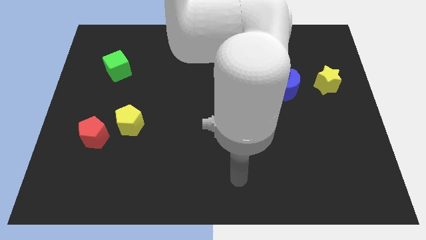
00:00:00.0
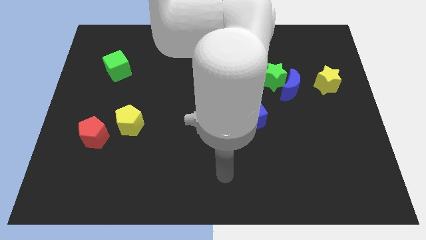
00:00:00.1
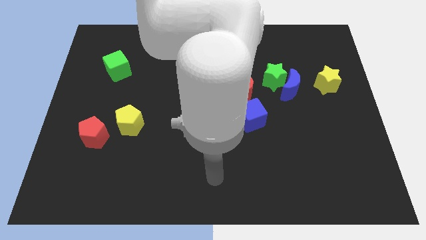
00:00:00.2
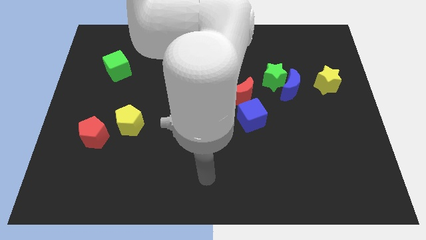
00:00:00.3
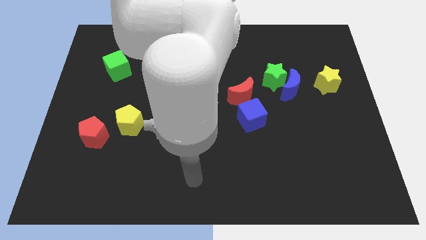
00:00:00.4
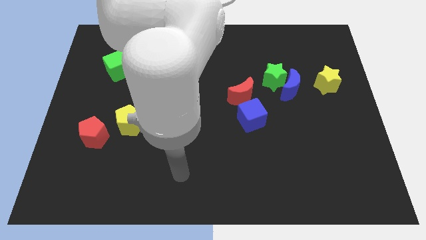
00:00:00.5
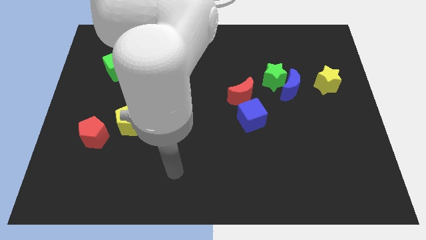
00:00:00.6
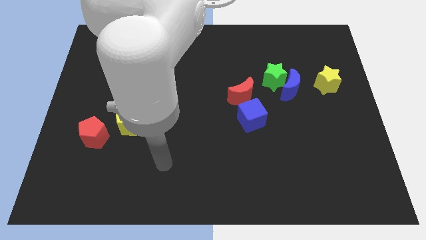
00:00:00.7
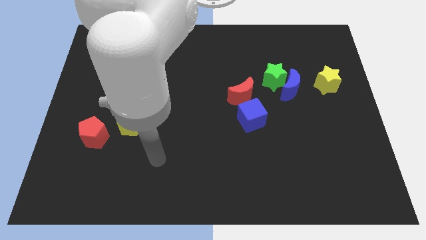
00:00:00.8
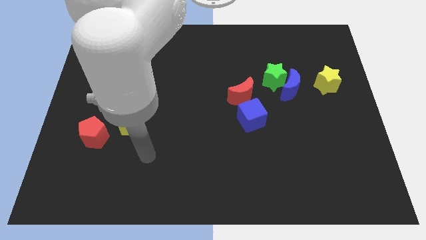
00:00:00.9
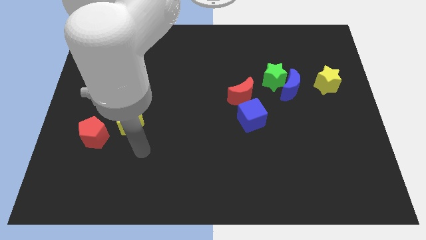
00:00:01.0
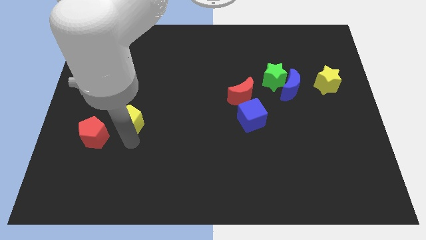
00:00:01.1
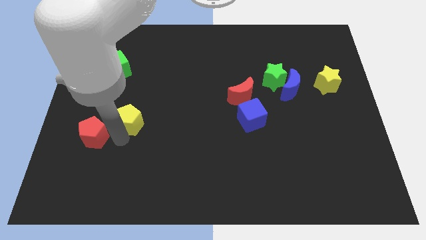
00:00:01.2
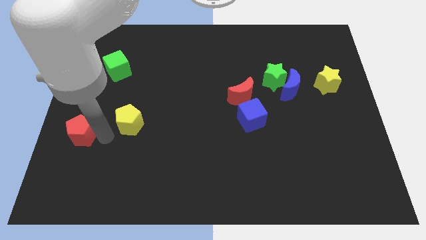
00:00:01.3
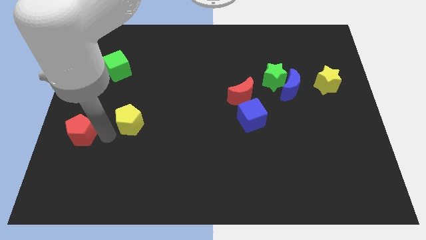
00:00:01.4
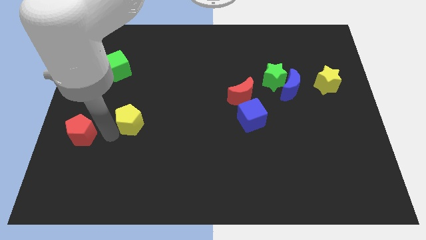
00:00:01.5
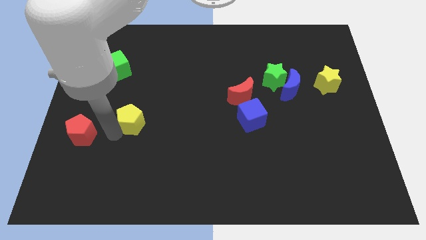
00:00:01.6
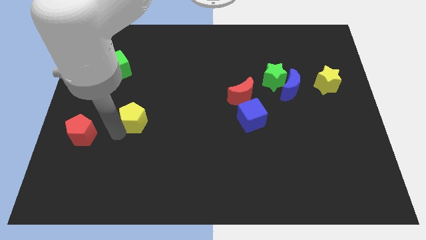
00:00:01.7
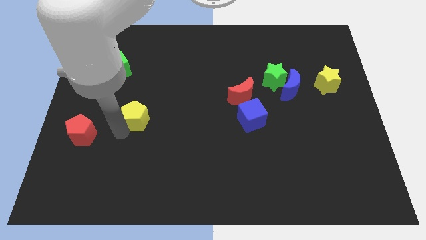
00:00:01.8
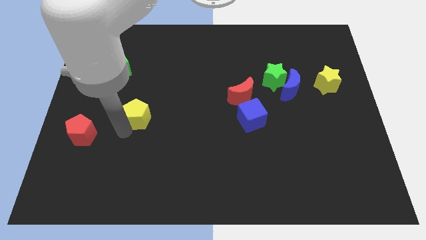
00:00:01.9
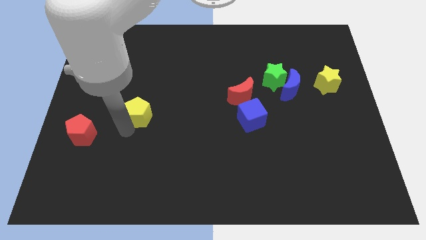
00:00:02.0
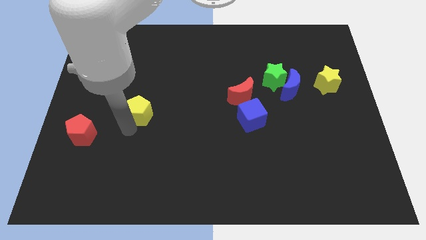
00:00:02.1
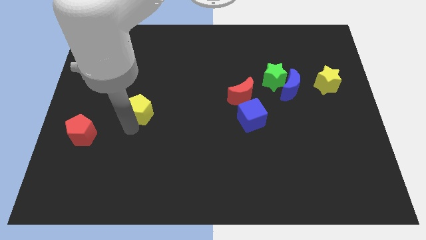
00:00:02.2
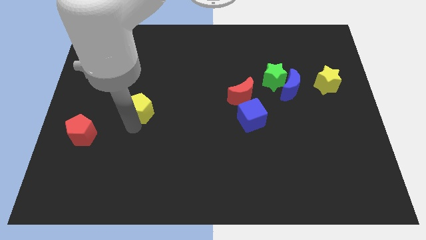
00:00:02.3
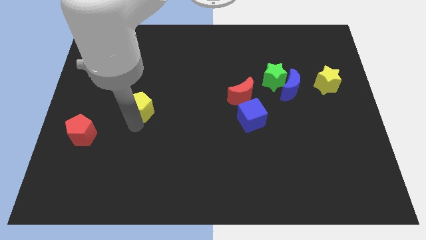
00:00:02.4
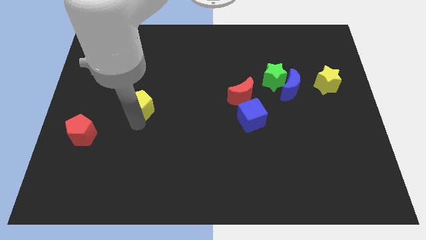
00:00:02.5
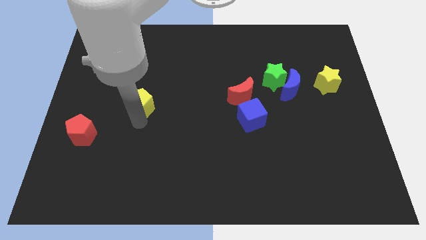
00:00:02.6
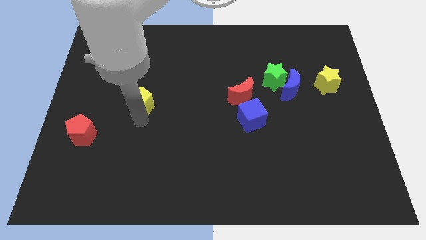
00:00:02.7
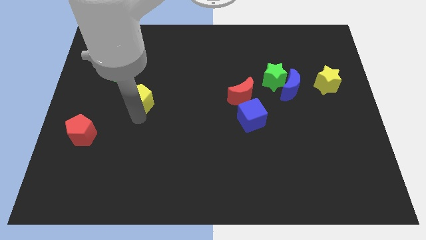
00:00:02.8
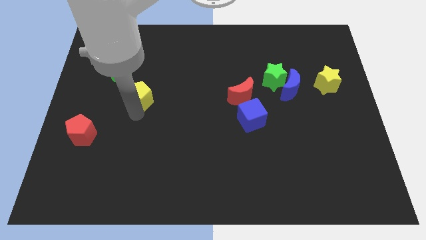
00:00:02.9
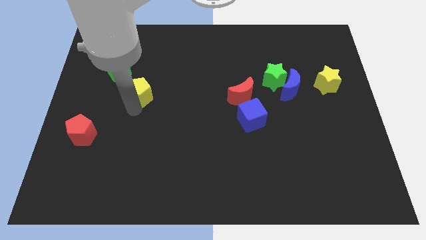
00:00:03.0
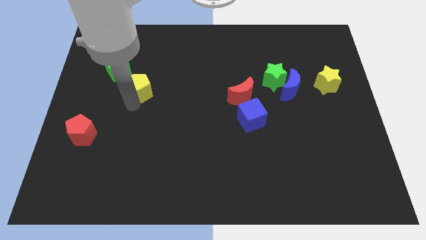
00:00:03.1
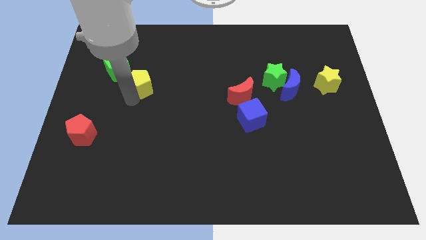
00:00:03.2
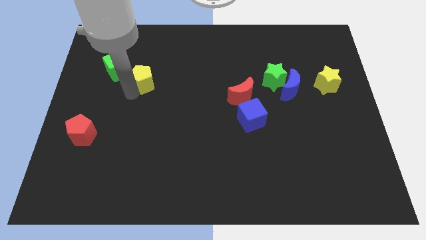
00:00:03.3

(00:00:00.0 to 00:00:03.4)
move the yellow pentagon a little bit upwards and right diagonally

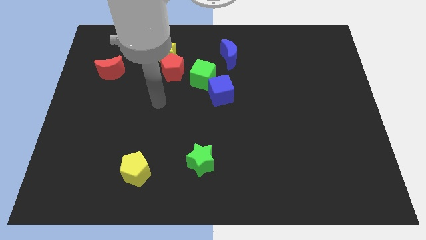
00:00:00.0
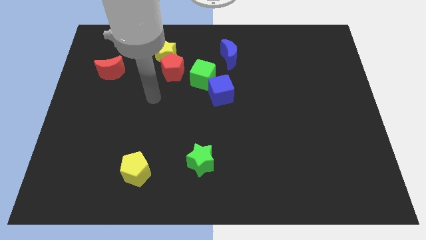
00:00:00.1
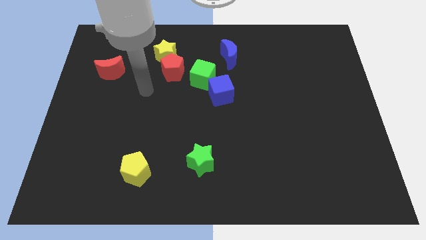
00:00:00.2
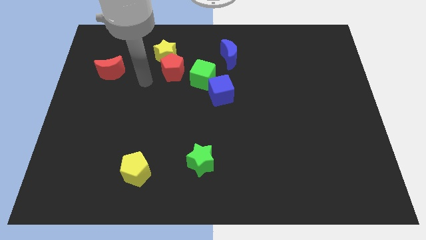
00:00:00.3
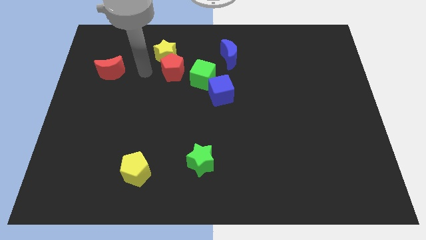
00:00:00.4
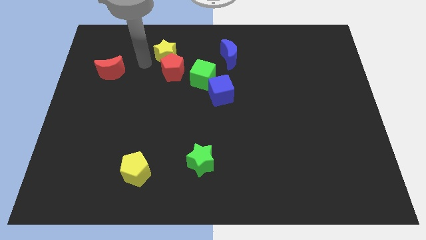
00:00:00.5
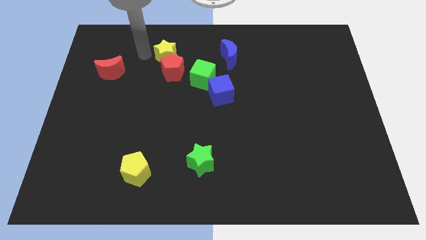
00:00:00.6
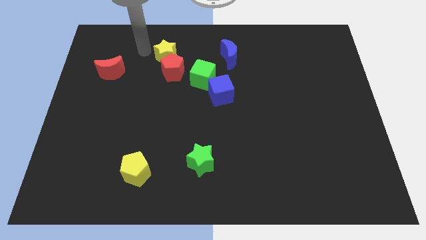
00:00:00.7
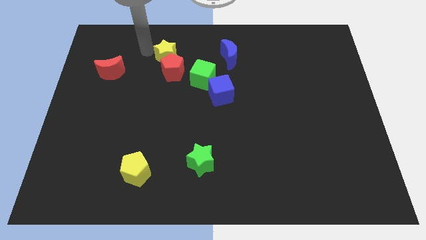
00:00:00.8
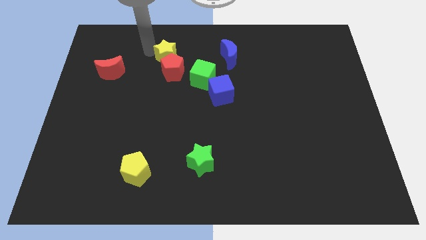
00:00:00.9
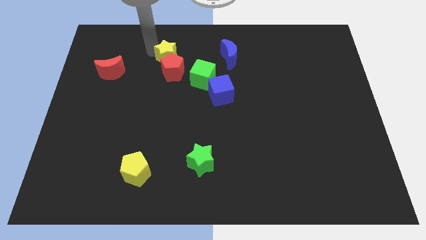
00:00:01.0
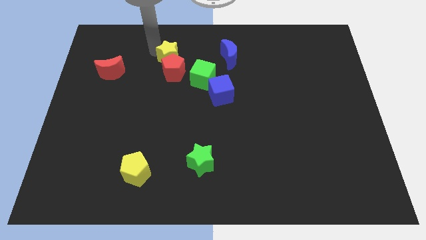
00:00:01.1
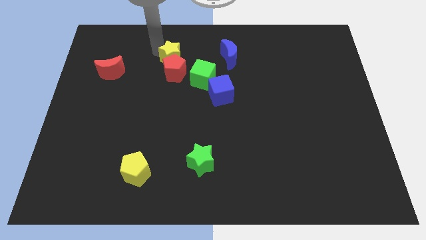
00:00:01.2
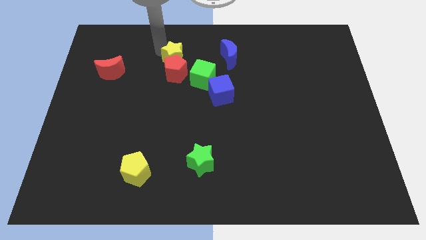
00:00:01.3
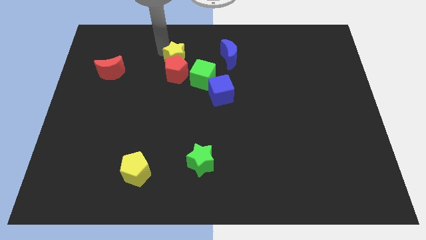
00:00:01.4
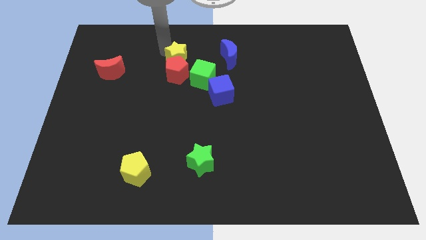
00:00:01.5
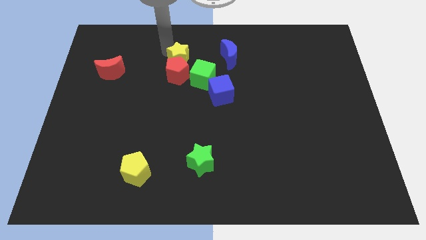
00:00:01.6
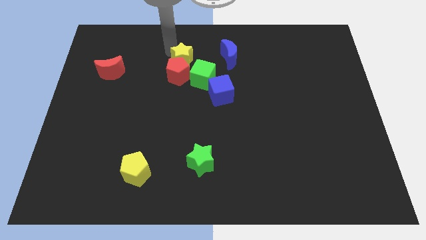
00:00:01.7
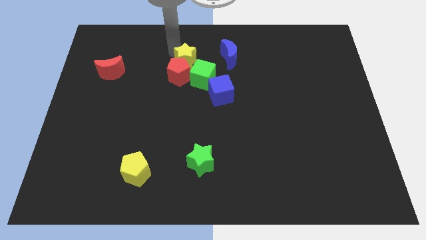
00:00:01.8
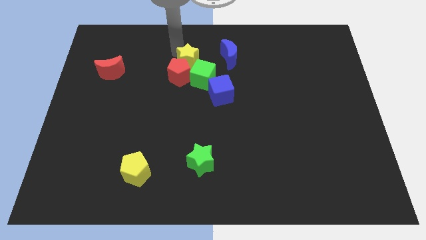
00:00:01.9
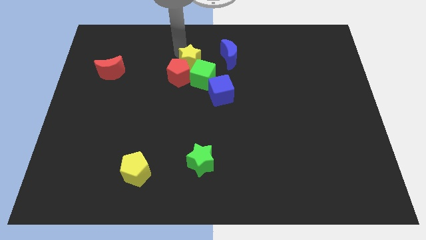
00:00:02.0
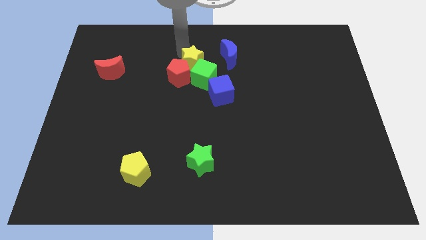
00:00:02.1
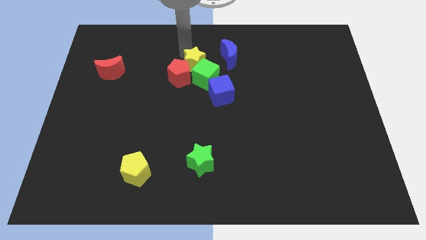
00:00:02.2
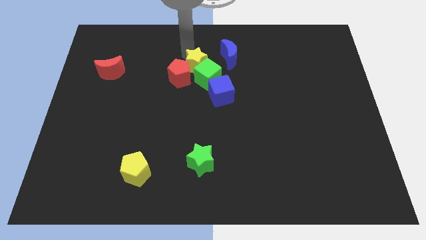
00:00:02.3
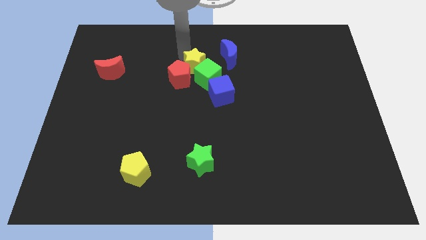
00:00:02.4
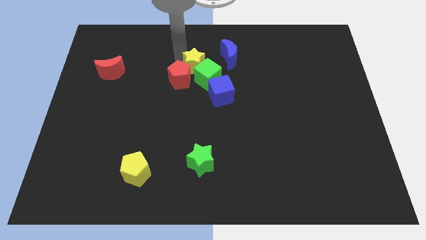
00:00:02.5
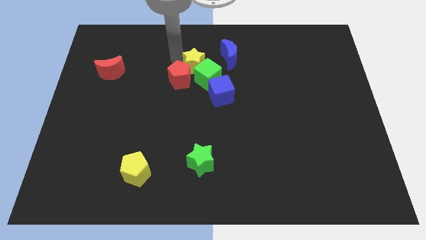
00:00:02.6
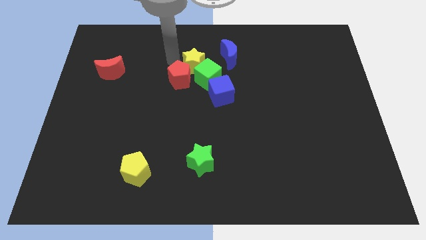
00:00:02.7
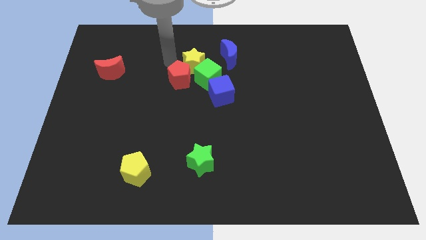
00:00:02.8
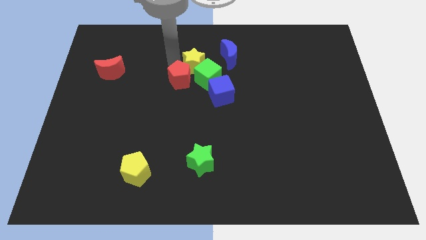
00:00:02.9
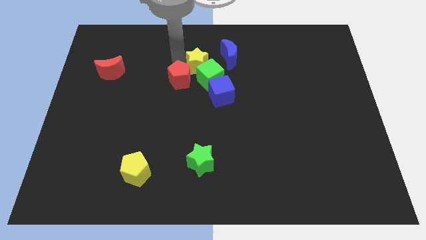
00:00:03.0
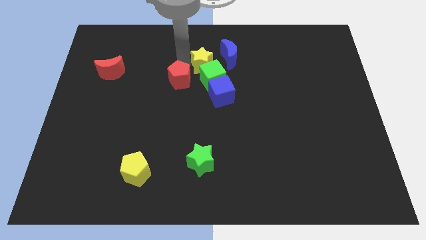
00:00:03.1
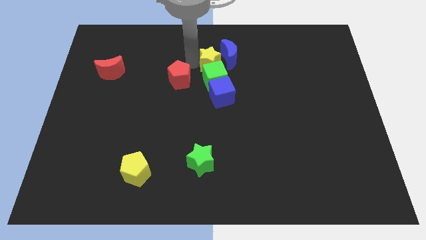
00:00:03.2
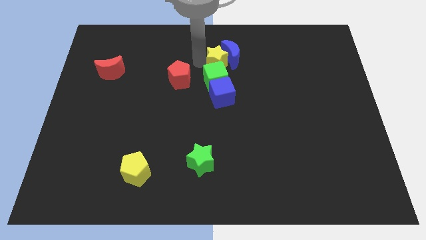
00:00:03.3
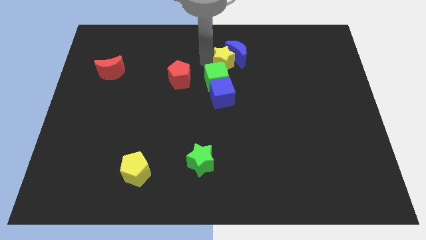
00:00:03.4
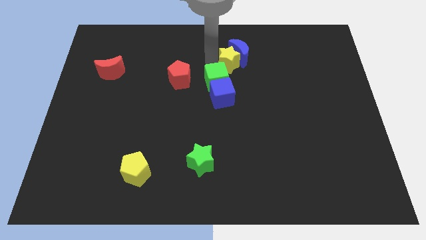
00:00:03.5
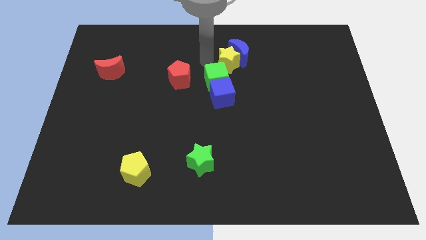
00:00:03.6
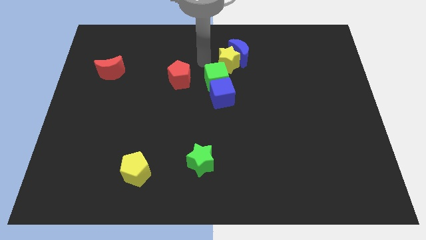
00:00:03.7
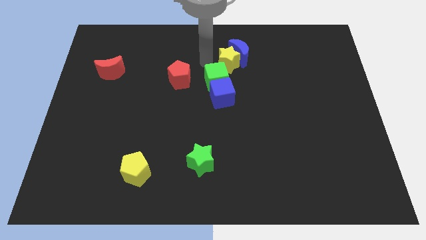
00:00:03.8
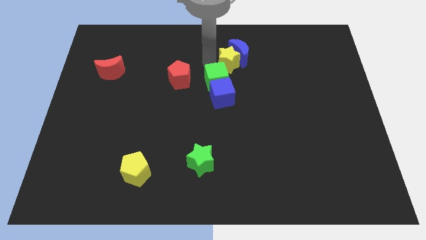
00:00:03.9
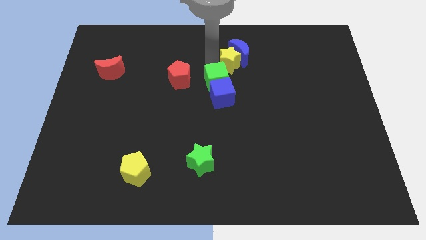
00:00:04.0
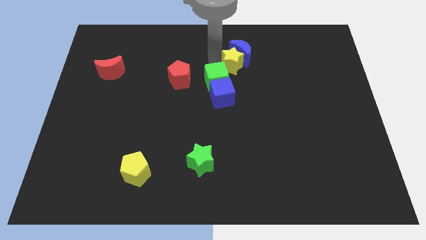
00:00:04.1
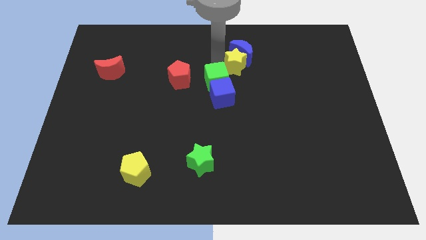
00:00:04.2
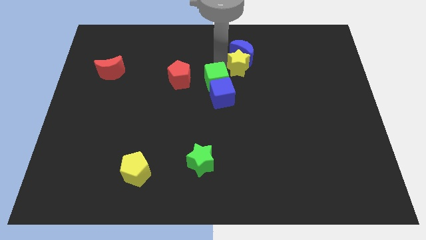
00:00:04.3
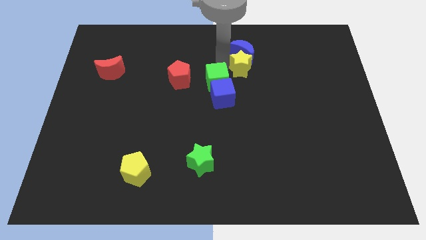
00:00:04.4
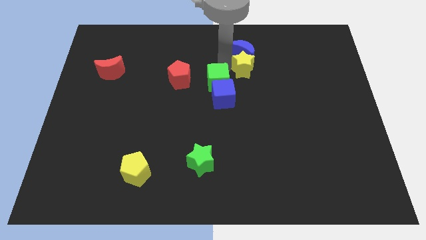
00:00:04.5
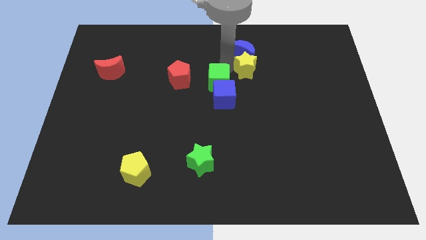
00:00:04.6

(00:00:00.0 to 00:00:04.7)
move the yellow star right
